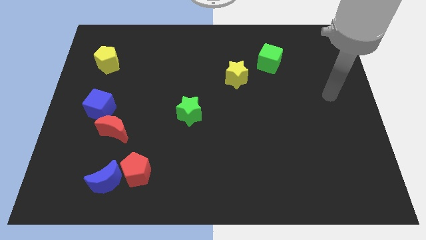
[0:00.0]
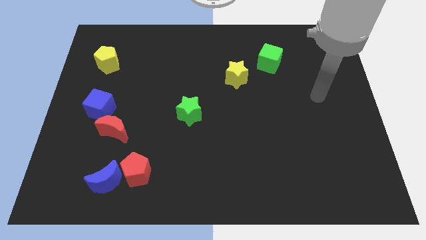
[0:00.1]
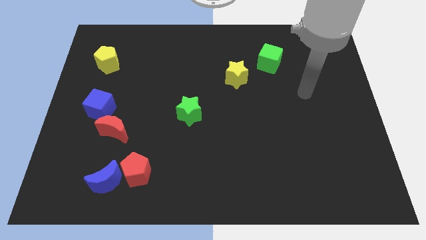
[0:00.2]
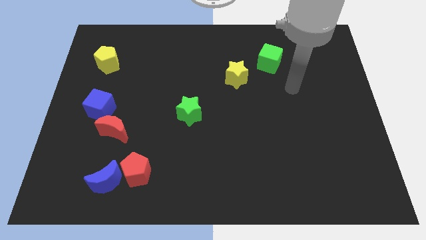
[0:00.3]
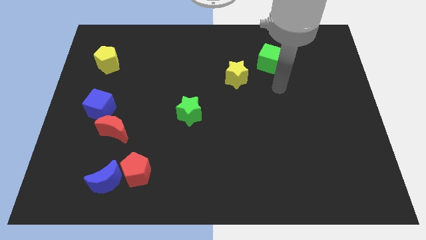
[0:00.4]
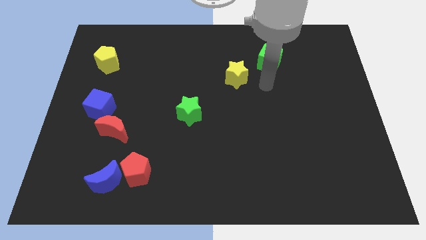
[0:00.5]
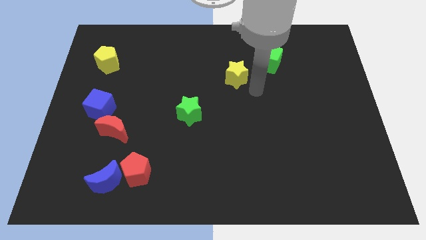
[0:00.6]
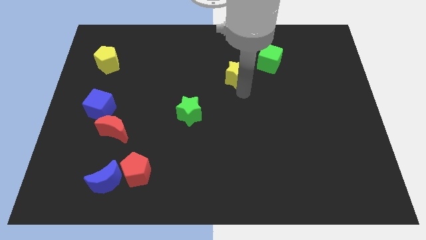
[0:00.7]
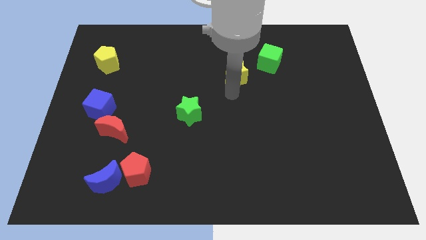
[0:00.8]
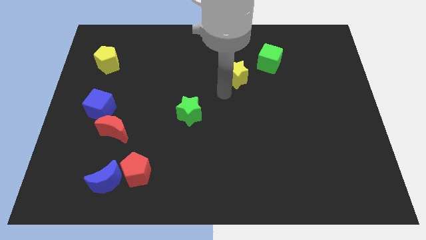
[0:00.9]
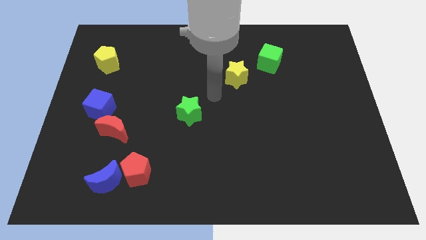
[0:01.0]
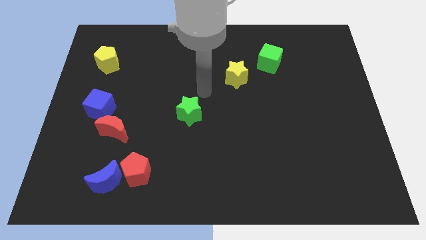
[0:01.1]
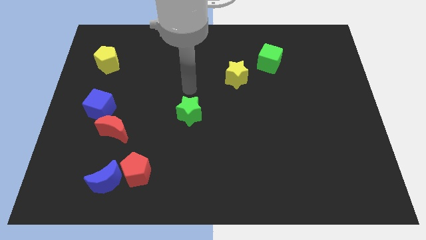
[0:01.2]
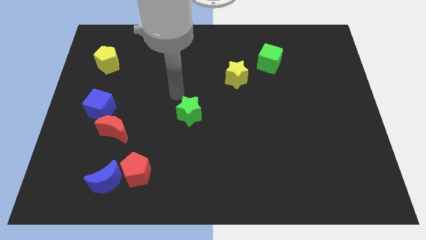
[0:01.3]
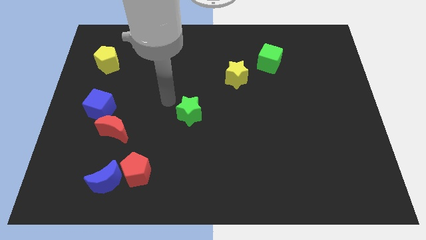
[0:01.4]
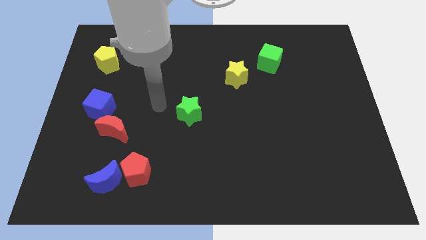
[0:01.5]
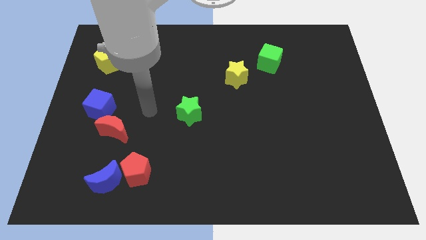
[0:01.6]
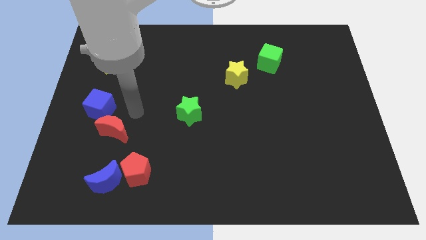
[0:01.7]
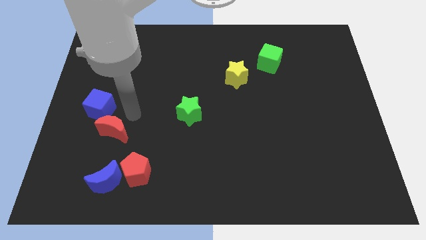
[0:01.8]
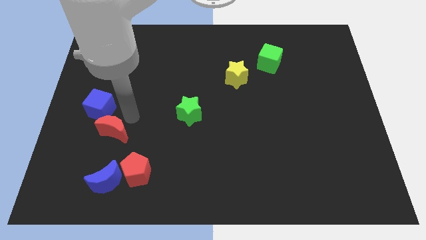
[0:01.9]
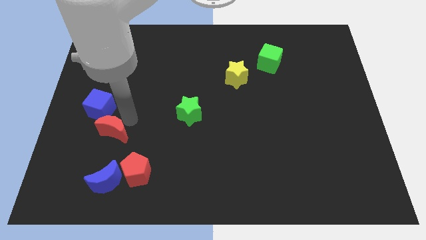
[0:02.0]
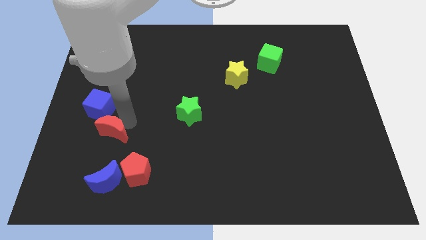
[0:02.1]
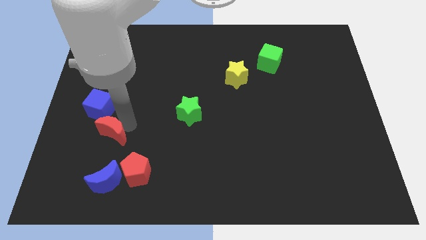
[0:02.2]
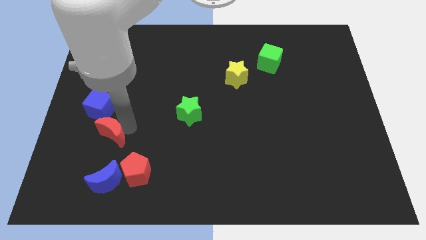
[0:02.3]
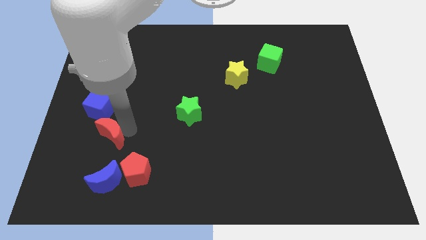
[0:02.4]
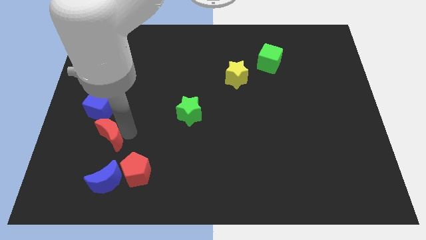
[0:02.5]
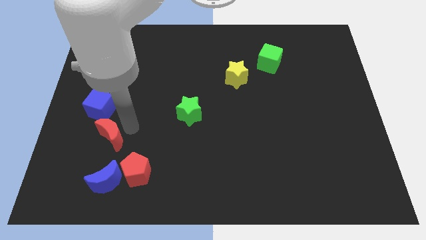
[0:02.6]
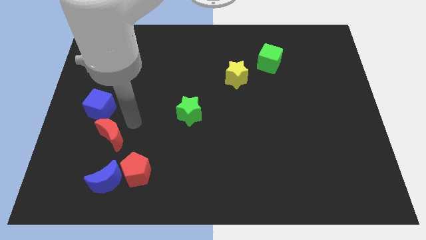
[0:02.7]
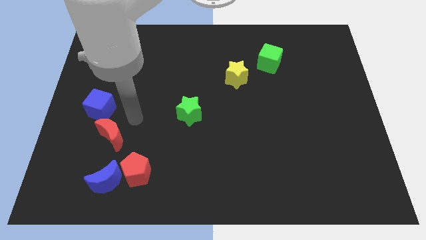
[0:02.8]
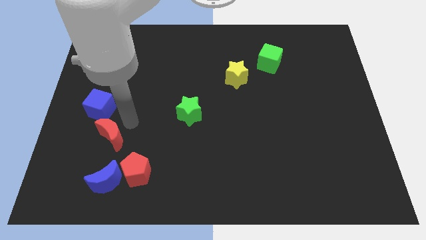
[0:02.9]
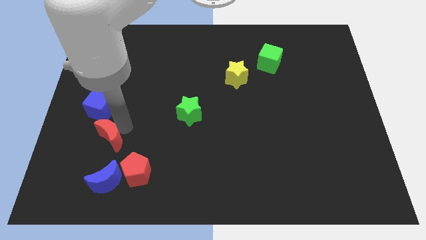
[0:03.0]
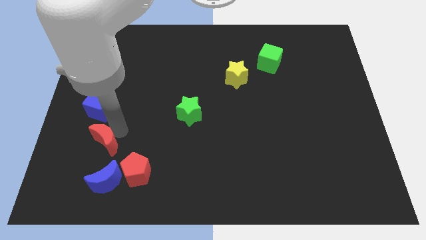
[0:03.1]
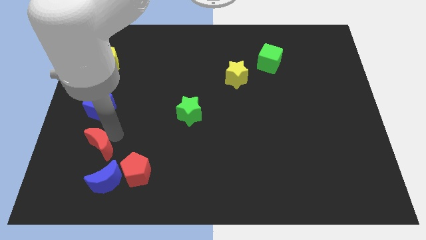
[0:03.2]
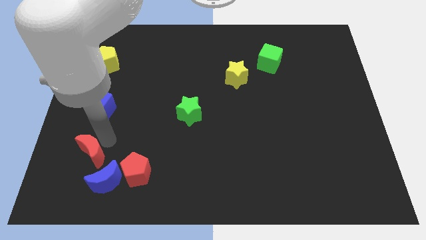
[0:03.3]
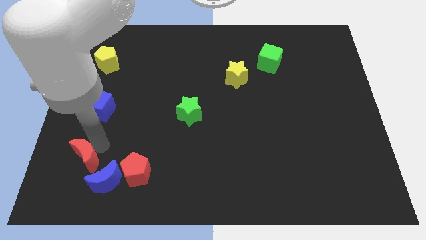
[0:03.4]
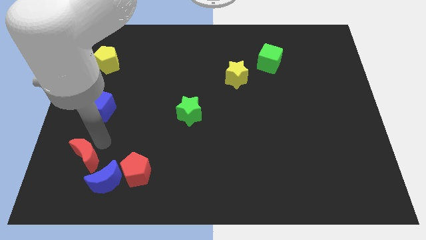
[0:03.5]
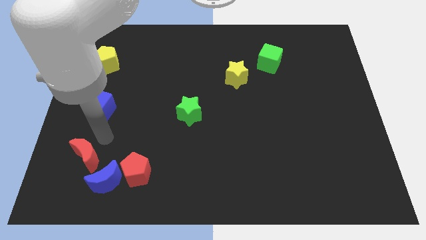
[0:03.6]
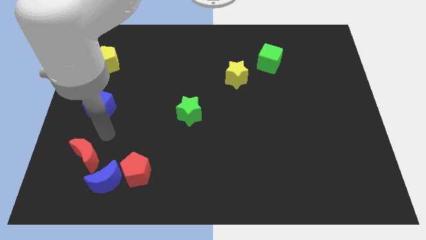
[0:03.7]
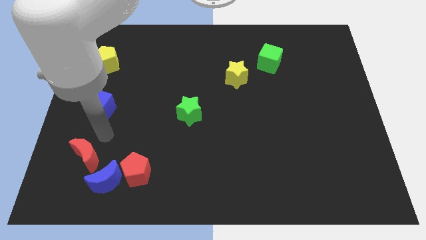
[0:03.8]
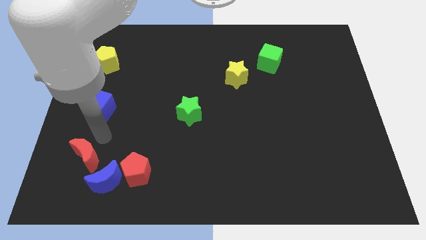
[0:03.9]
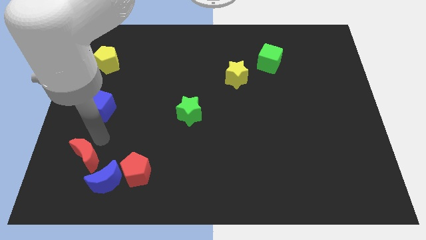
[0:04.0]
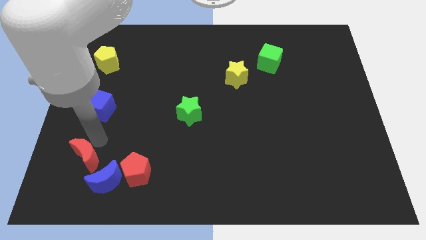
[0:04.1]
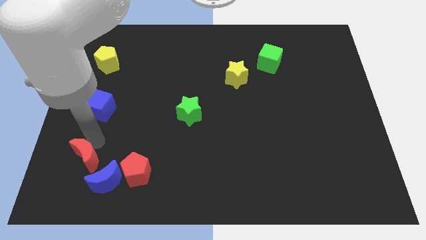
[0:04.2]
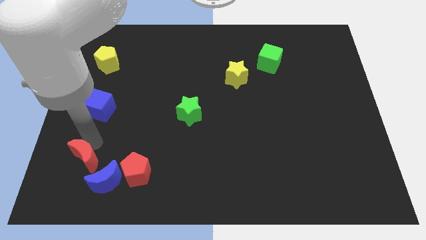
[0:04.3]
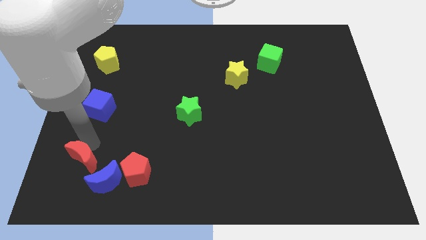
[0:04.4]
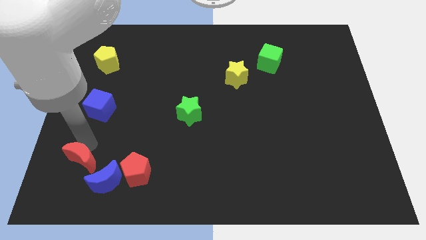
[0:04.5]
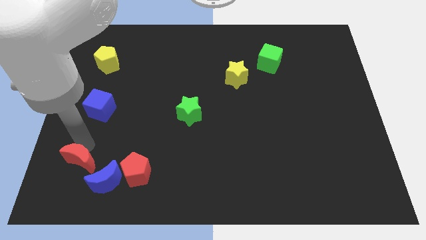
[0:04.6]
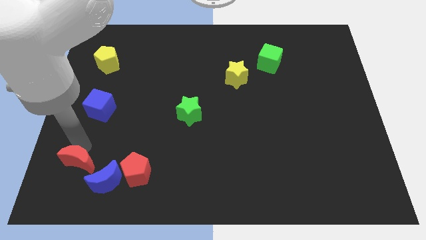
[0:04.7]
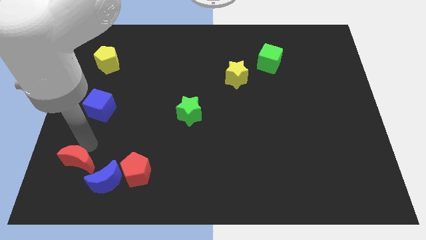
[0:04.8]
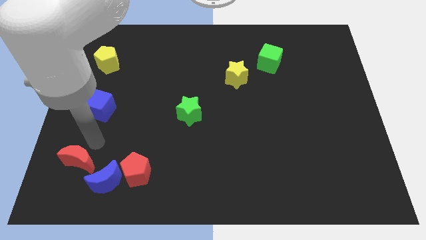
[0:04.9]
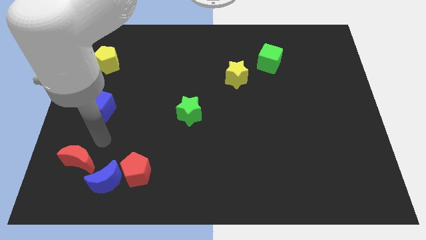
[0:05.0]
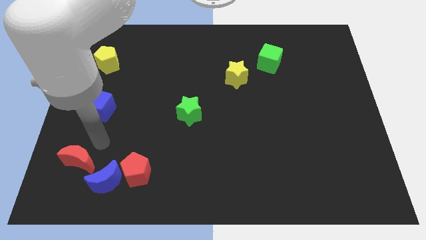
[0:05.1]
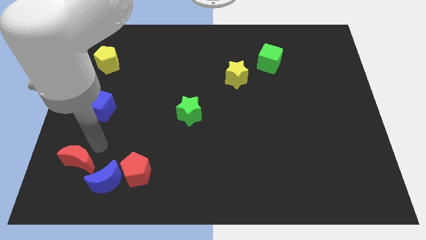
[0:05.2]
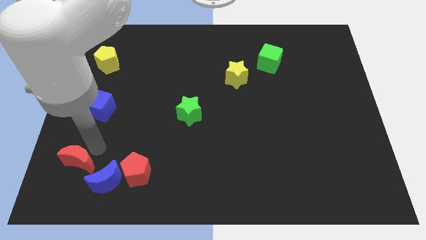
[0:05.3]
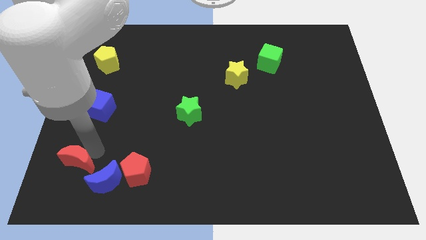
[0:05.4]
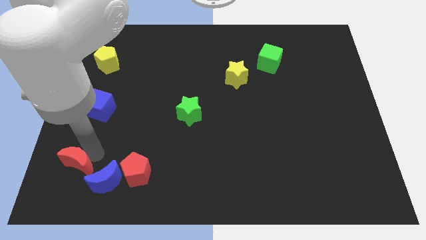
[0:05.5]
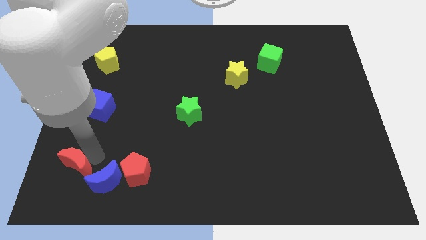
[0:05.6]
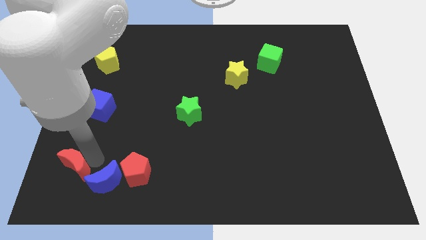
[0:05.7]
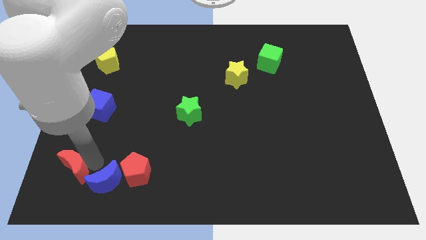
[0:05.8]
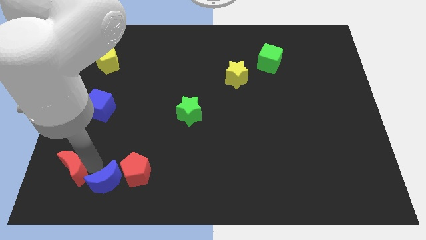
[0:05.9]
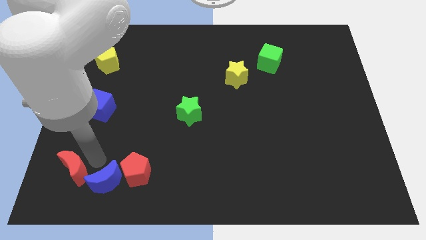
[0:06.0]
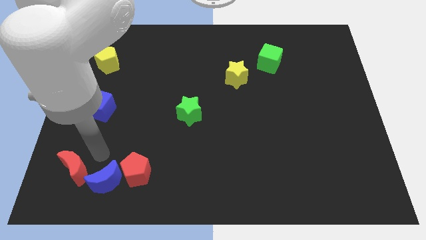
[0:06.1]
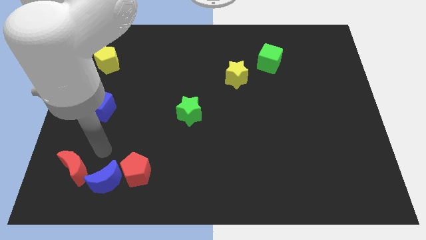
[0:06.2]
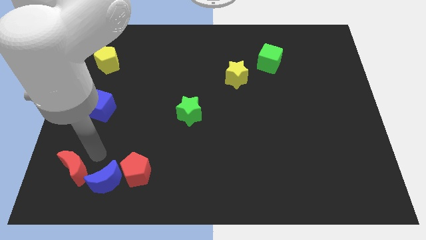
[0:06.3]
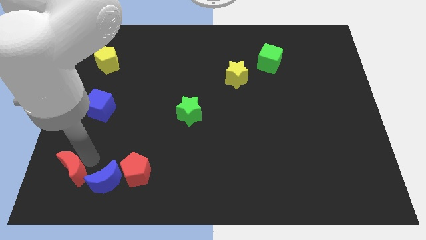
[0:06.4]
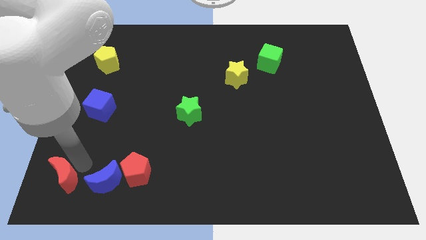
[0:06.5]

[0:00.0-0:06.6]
move the red moon to the bottom left of the board
